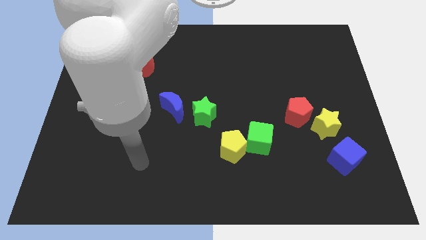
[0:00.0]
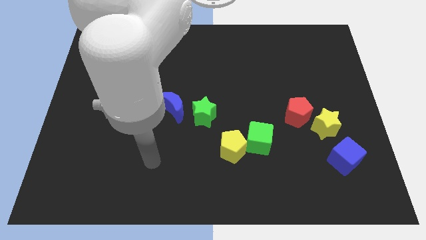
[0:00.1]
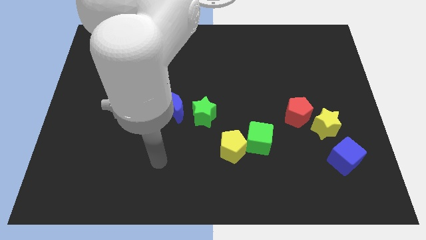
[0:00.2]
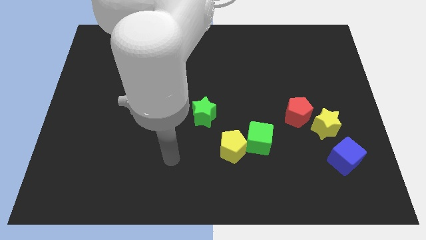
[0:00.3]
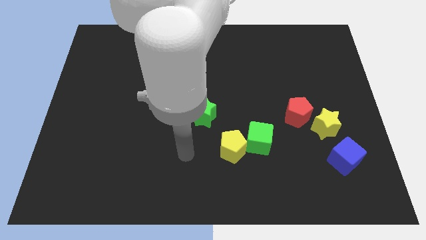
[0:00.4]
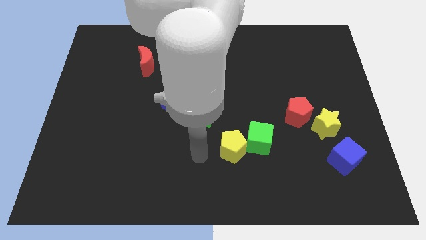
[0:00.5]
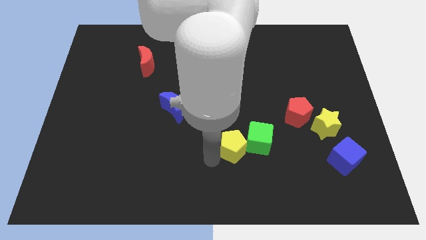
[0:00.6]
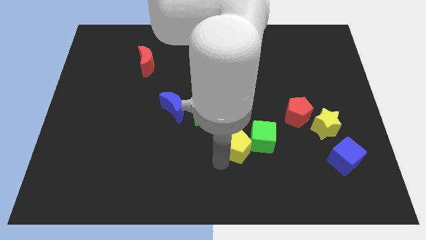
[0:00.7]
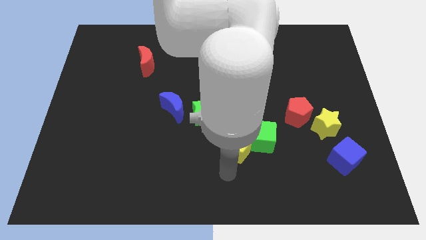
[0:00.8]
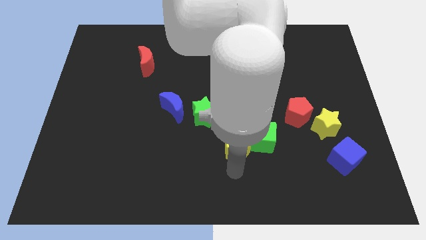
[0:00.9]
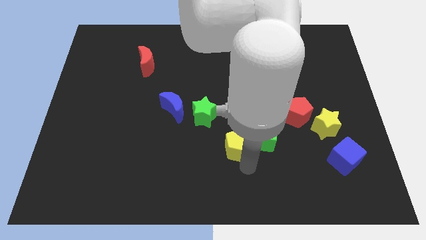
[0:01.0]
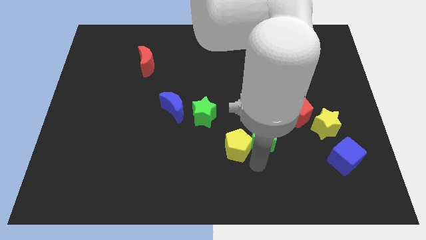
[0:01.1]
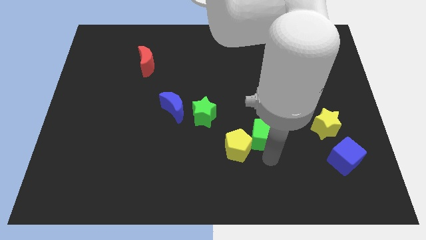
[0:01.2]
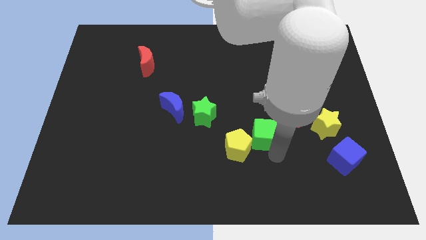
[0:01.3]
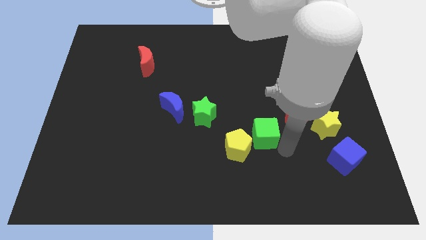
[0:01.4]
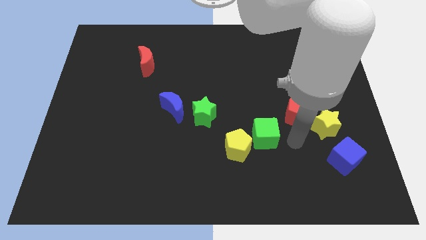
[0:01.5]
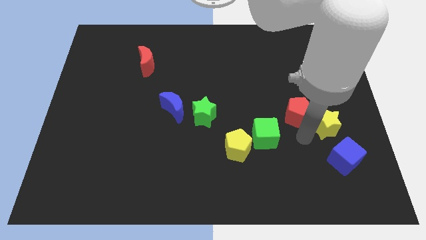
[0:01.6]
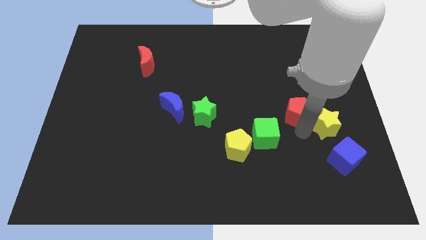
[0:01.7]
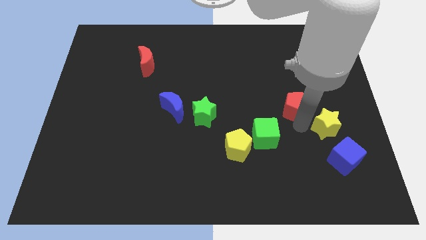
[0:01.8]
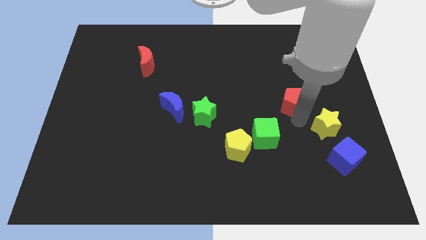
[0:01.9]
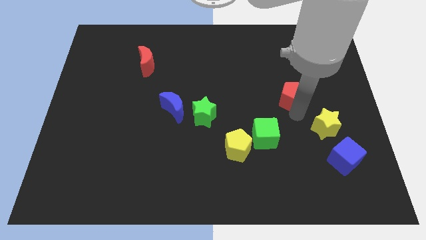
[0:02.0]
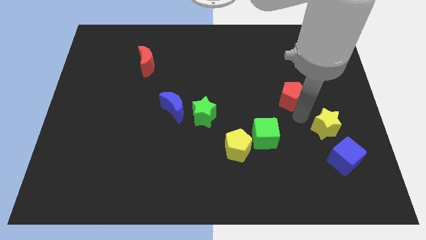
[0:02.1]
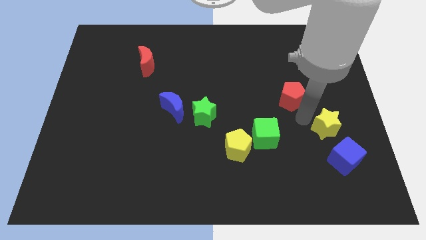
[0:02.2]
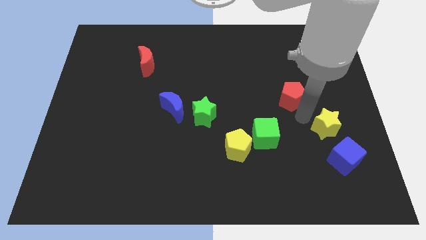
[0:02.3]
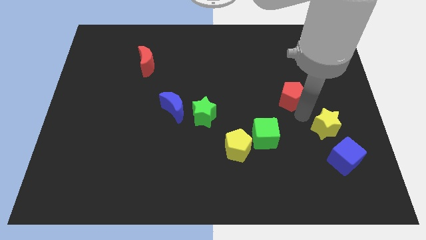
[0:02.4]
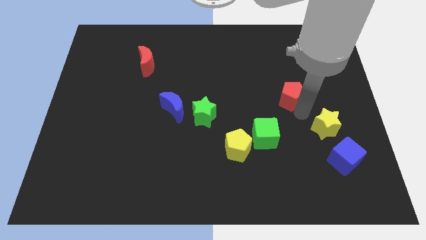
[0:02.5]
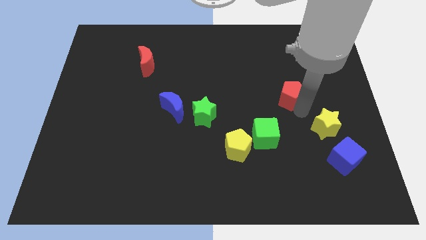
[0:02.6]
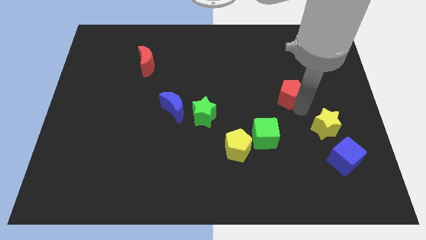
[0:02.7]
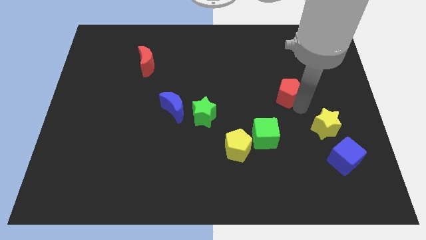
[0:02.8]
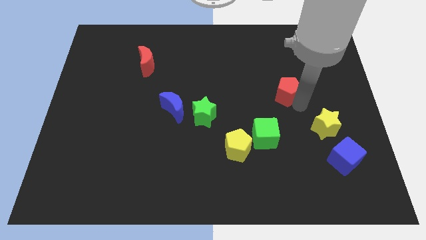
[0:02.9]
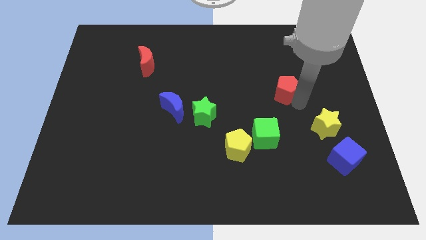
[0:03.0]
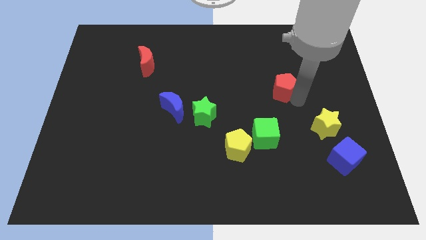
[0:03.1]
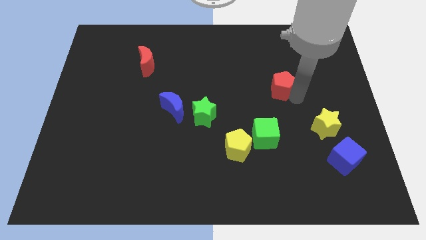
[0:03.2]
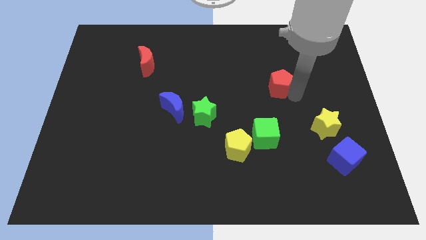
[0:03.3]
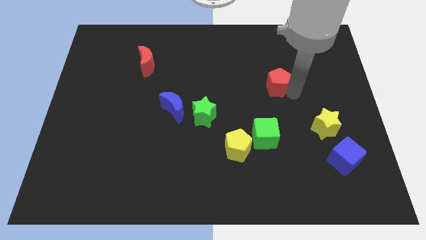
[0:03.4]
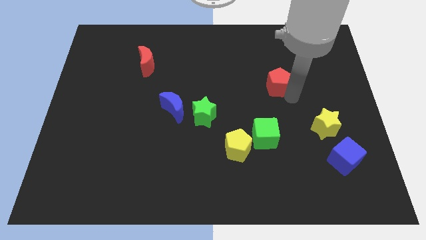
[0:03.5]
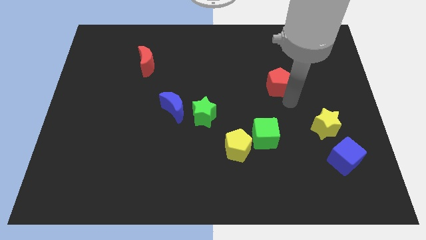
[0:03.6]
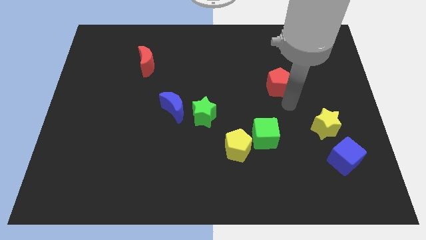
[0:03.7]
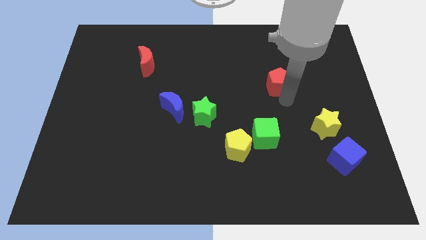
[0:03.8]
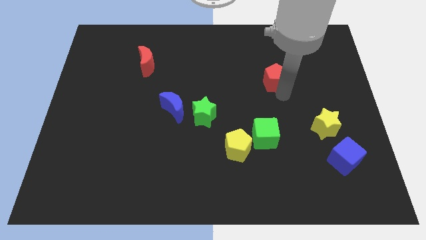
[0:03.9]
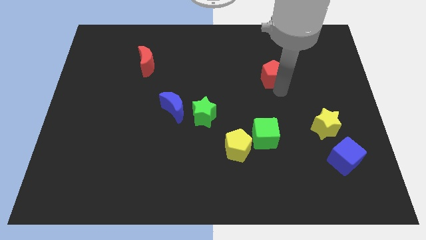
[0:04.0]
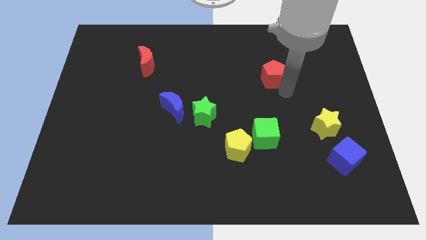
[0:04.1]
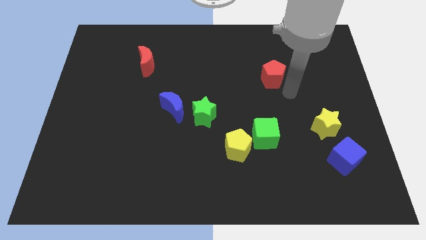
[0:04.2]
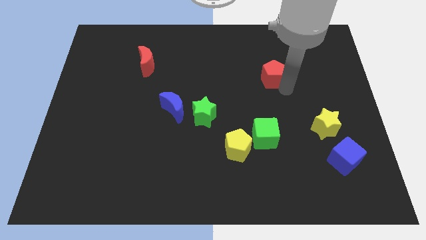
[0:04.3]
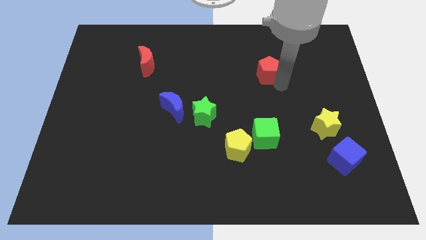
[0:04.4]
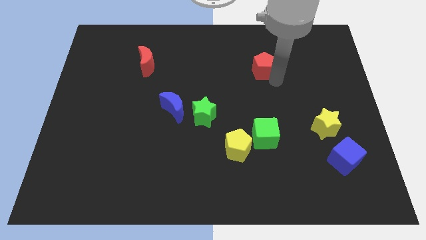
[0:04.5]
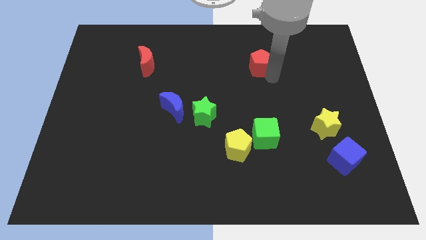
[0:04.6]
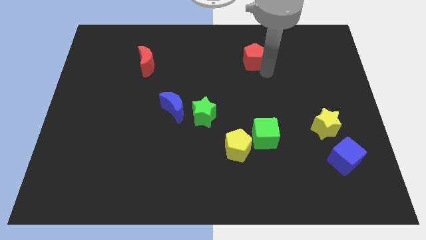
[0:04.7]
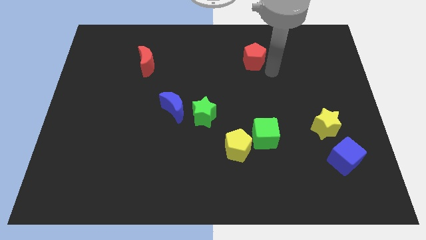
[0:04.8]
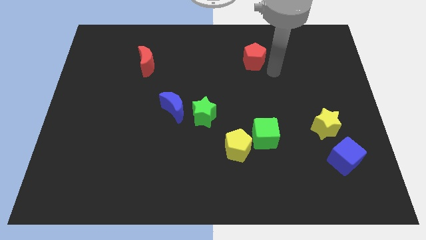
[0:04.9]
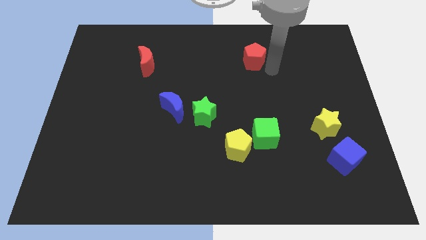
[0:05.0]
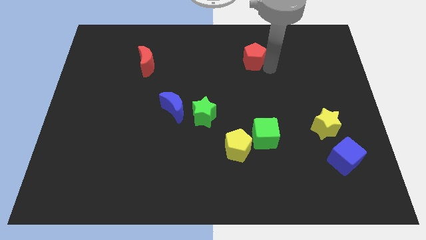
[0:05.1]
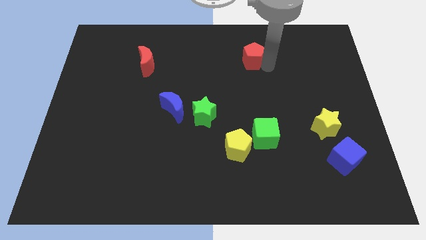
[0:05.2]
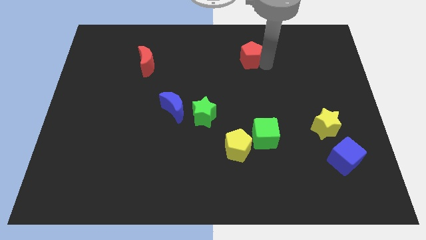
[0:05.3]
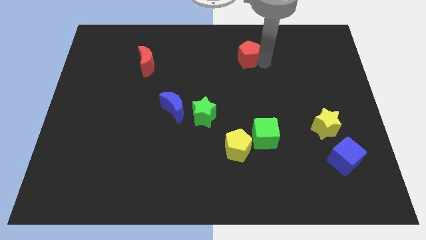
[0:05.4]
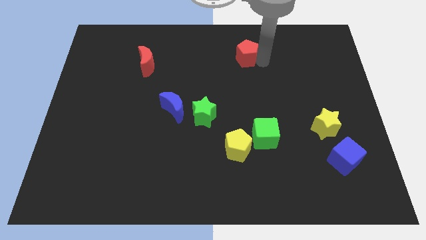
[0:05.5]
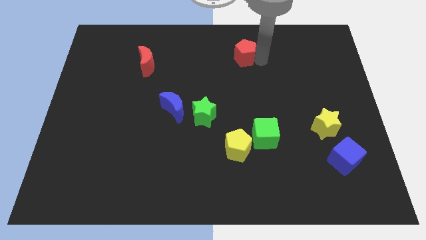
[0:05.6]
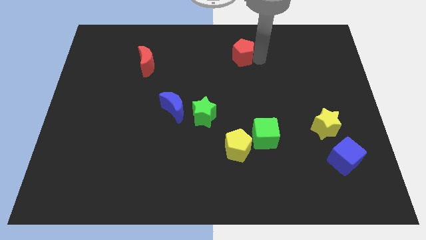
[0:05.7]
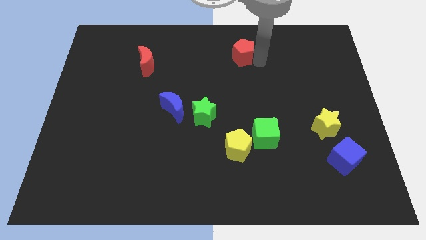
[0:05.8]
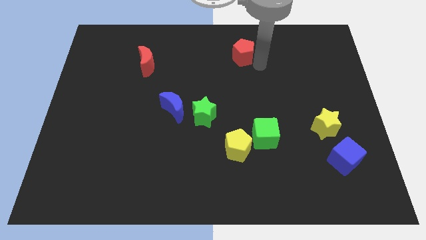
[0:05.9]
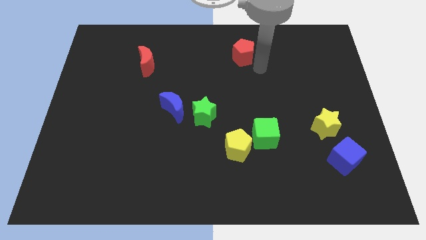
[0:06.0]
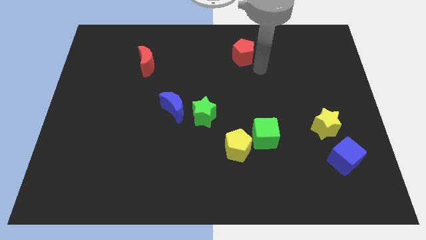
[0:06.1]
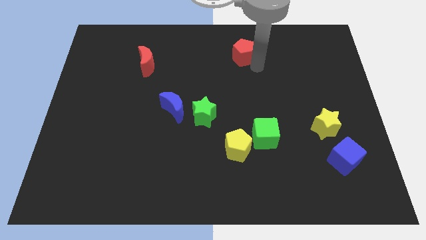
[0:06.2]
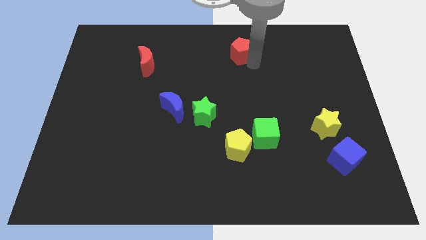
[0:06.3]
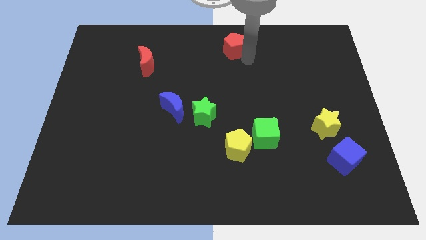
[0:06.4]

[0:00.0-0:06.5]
move the red pentagon to the top
